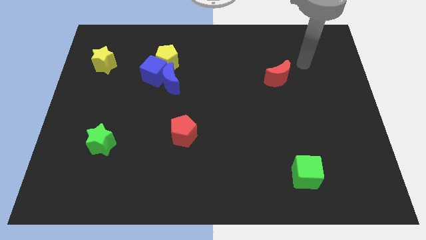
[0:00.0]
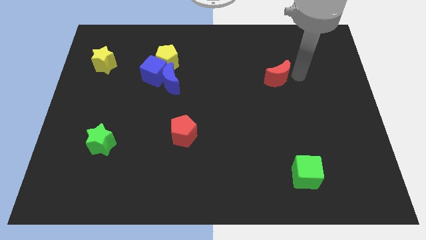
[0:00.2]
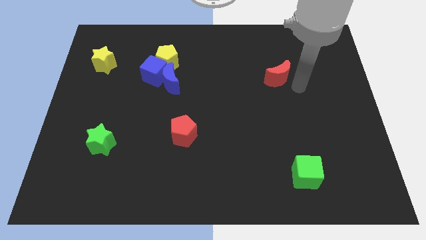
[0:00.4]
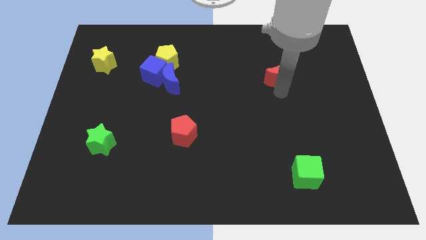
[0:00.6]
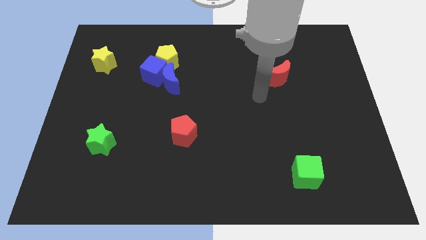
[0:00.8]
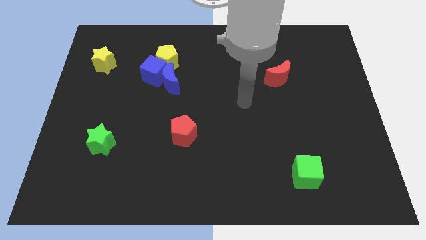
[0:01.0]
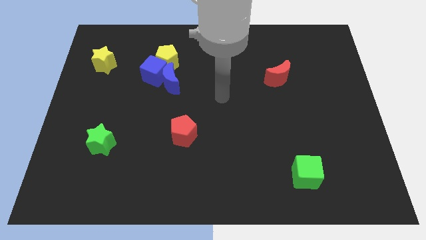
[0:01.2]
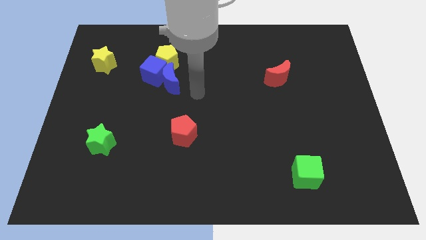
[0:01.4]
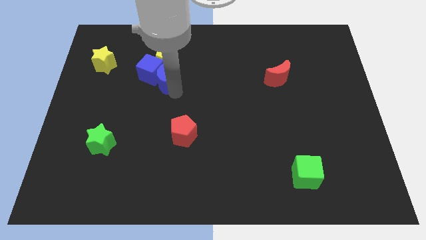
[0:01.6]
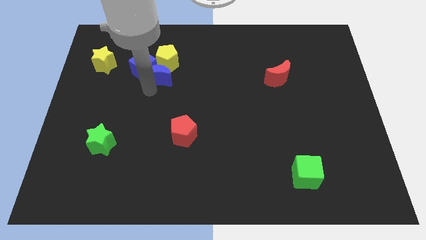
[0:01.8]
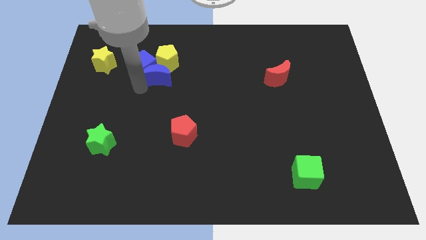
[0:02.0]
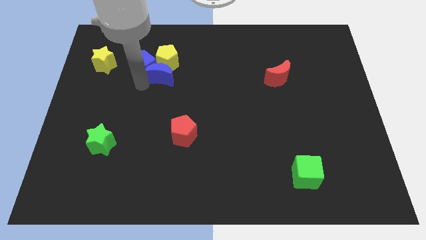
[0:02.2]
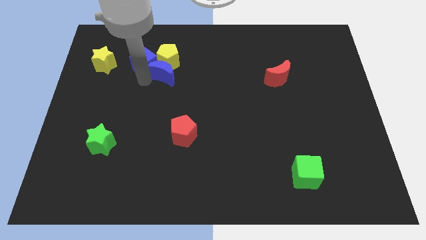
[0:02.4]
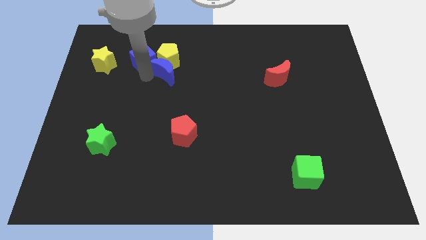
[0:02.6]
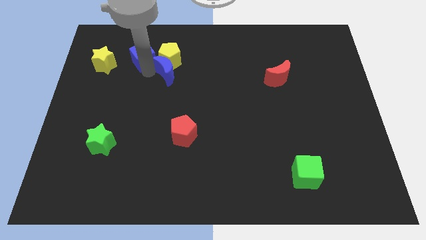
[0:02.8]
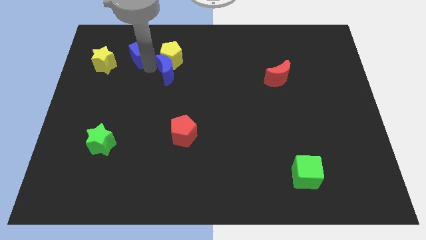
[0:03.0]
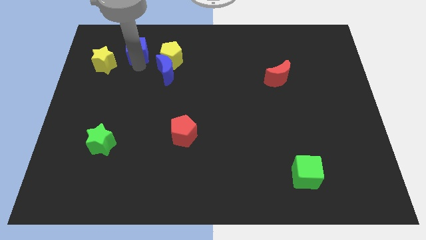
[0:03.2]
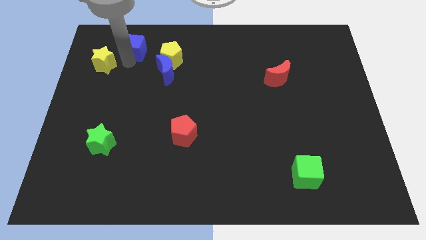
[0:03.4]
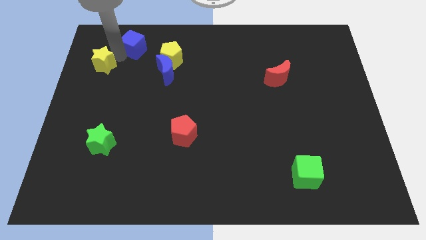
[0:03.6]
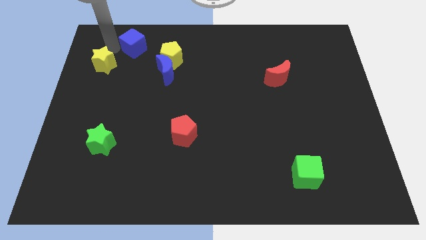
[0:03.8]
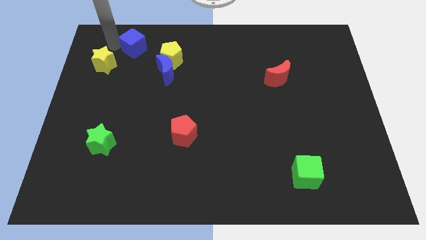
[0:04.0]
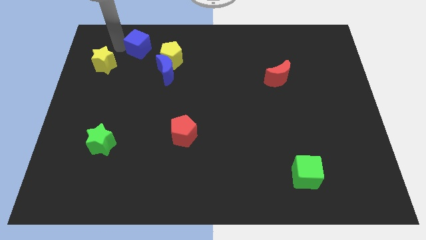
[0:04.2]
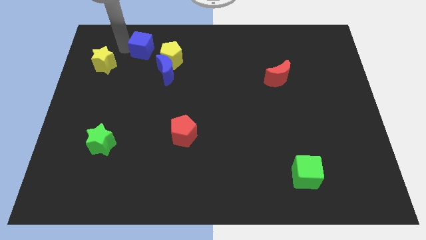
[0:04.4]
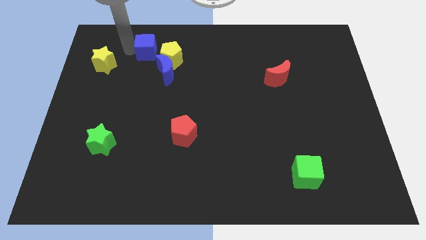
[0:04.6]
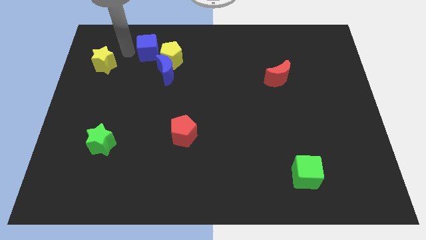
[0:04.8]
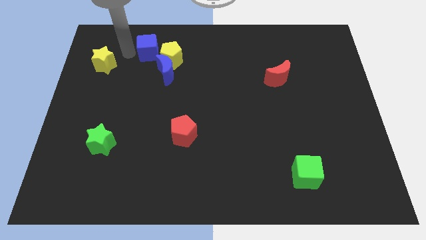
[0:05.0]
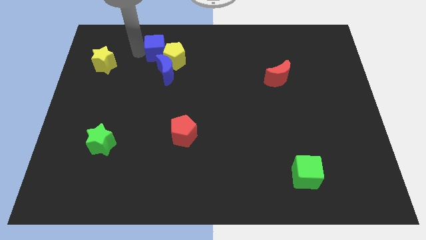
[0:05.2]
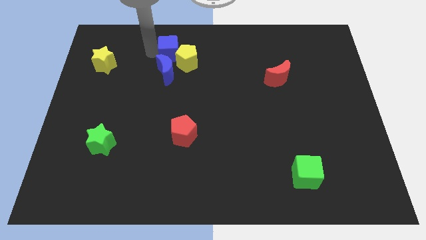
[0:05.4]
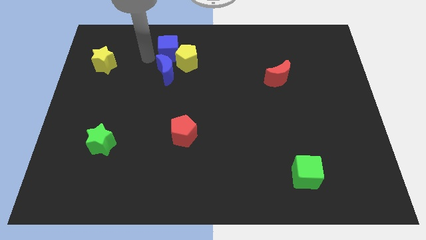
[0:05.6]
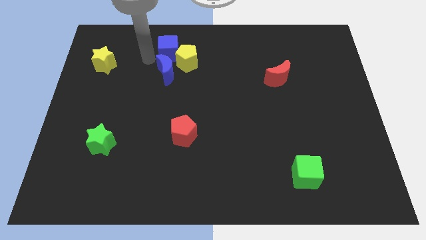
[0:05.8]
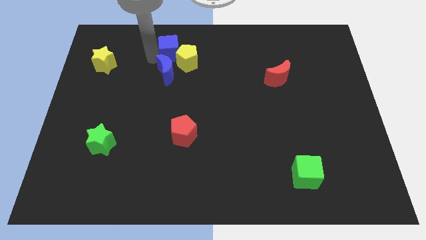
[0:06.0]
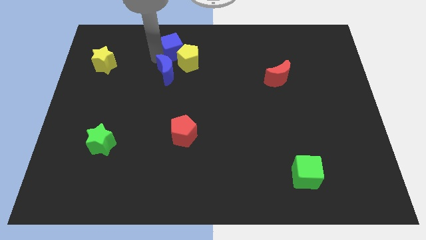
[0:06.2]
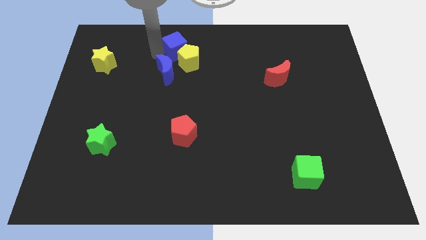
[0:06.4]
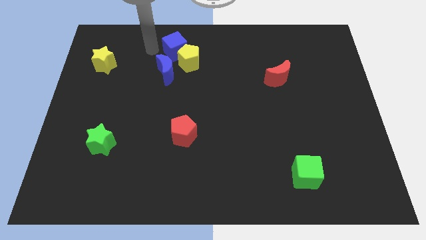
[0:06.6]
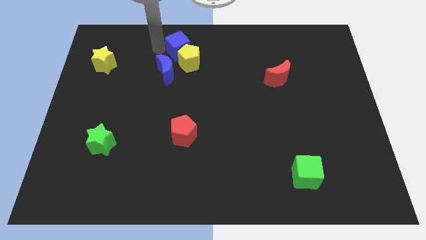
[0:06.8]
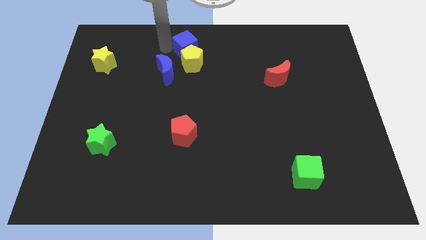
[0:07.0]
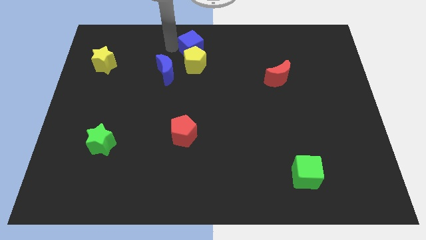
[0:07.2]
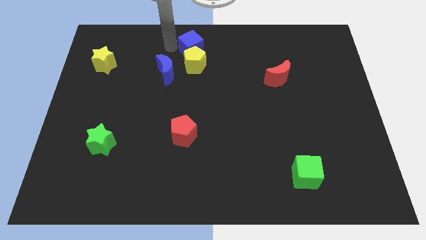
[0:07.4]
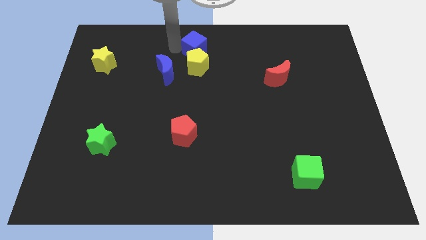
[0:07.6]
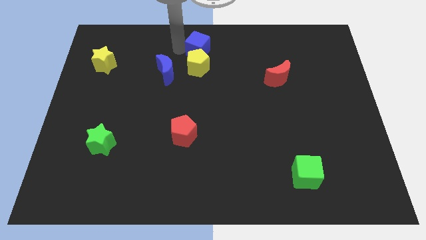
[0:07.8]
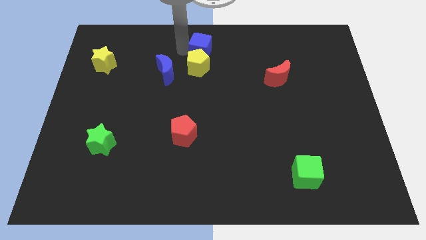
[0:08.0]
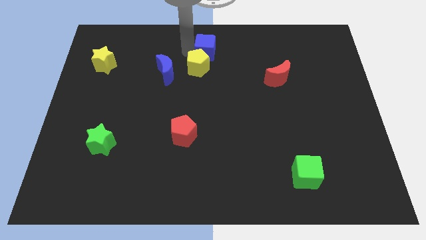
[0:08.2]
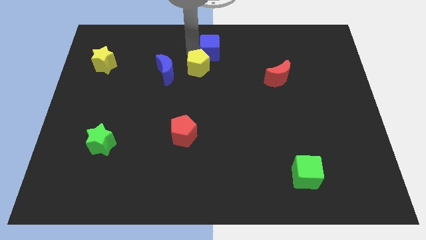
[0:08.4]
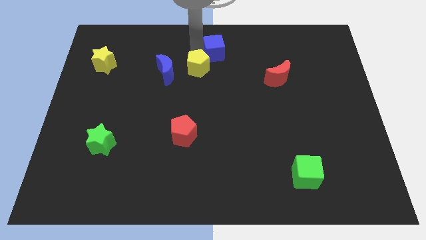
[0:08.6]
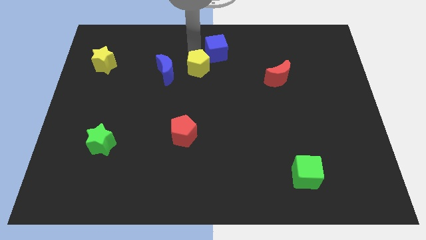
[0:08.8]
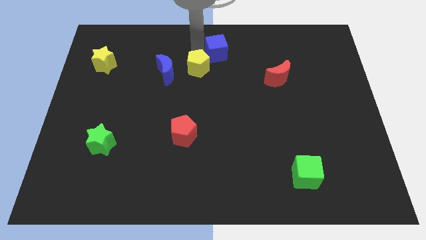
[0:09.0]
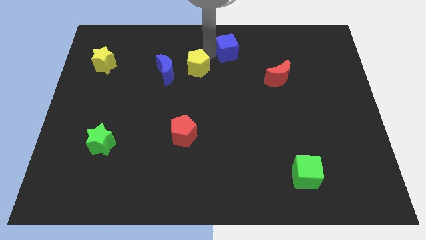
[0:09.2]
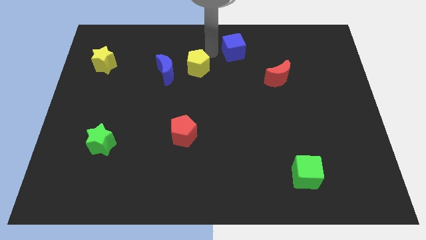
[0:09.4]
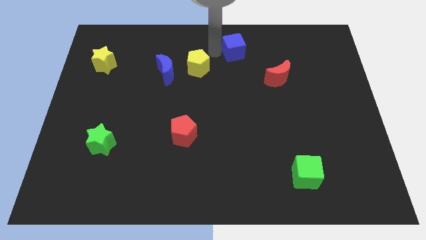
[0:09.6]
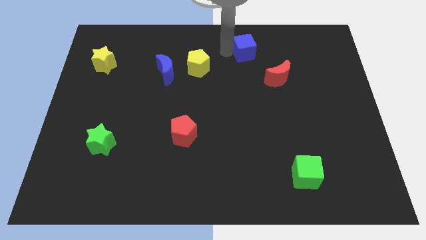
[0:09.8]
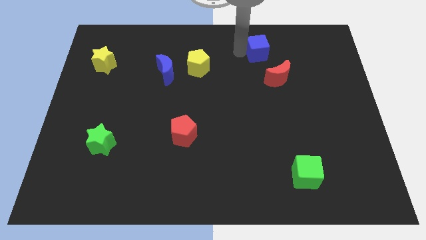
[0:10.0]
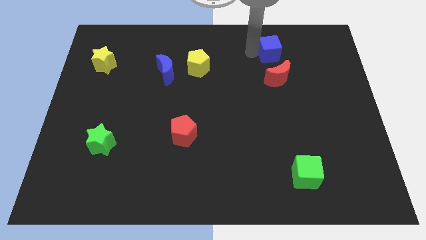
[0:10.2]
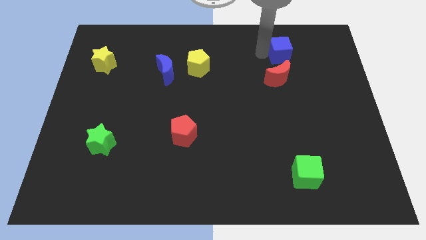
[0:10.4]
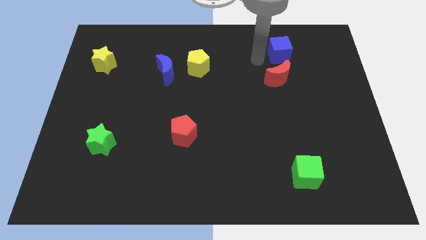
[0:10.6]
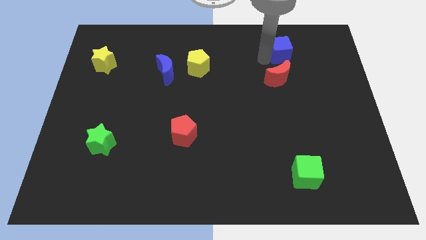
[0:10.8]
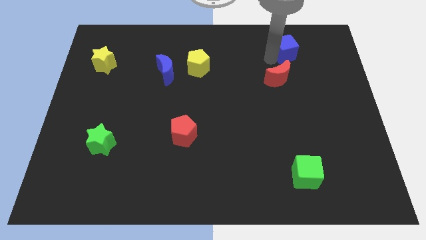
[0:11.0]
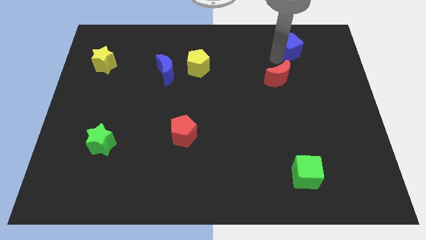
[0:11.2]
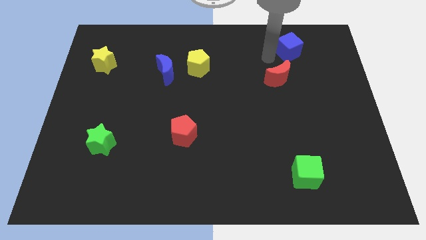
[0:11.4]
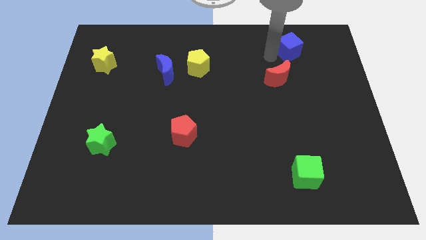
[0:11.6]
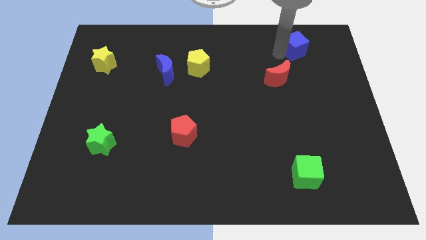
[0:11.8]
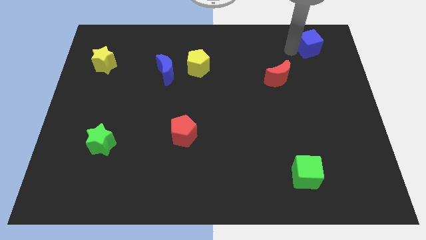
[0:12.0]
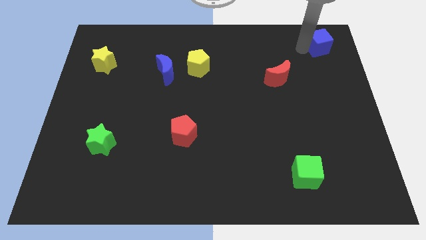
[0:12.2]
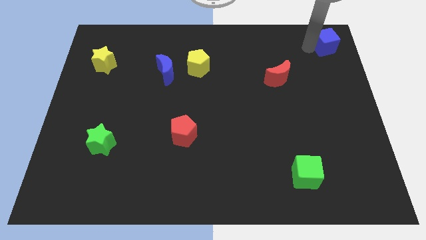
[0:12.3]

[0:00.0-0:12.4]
put the blue cube to the top right of the board

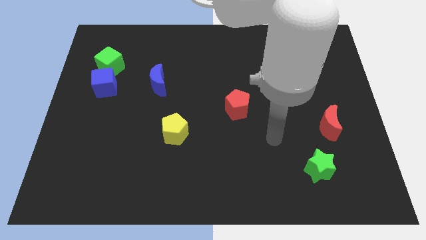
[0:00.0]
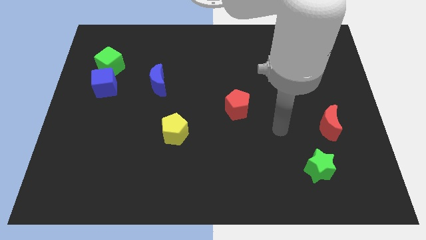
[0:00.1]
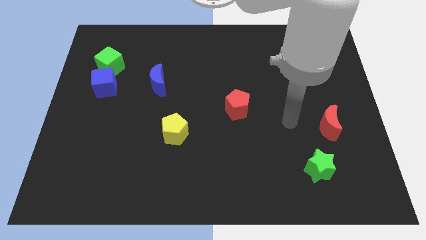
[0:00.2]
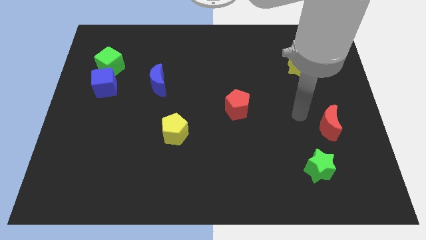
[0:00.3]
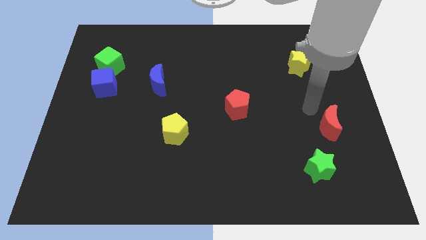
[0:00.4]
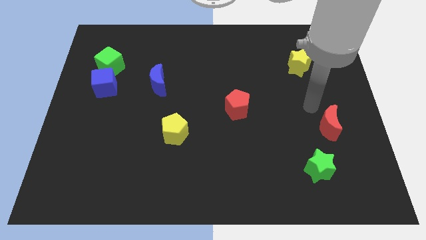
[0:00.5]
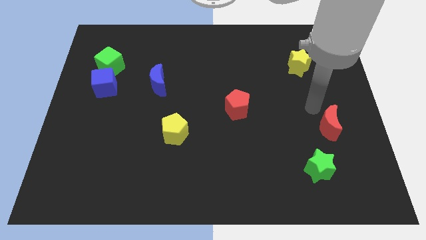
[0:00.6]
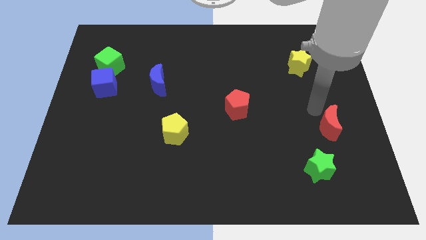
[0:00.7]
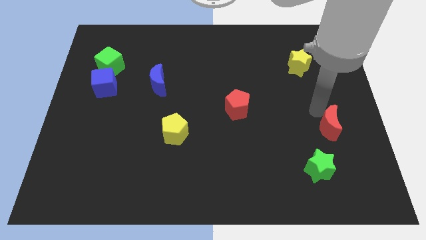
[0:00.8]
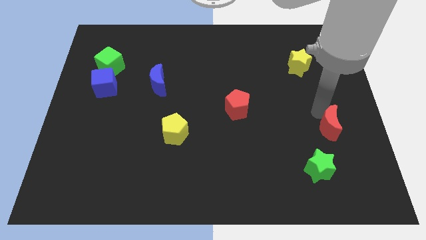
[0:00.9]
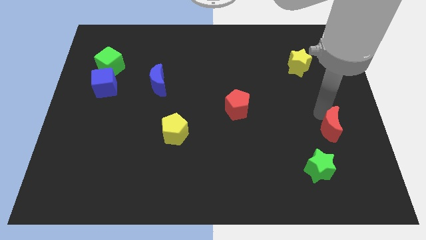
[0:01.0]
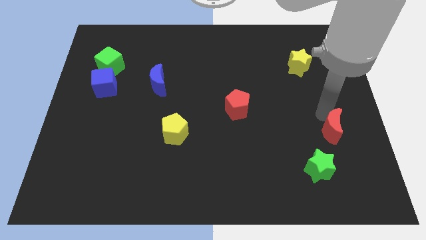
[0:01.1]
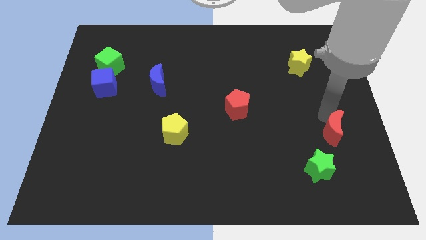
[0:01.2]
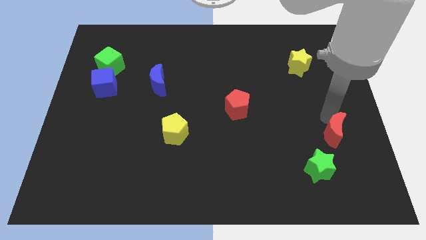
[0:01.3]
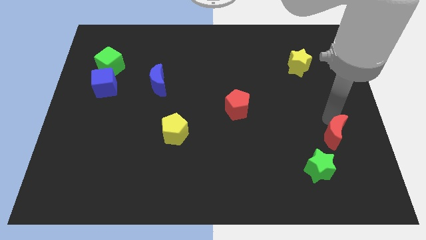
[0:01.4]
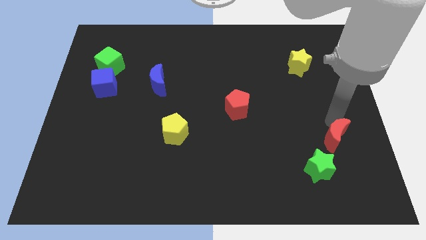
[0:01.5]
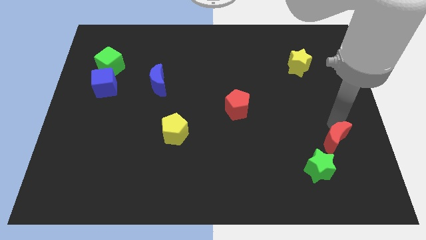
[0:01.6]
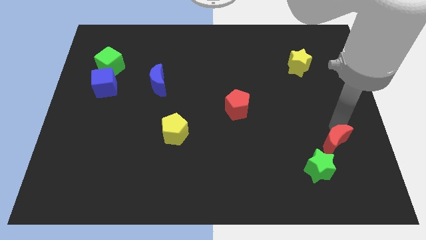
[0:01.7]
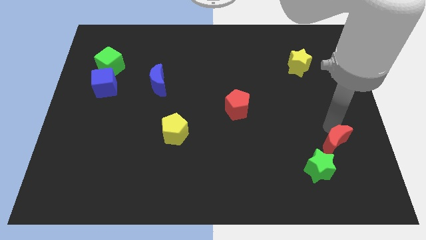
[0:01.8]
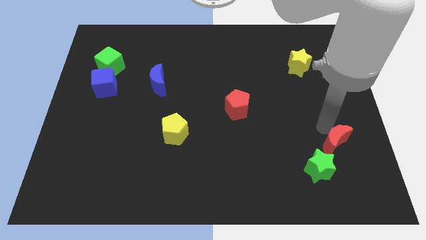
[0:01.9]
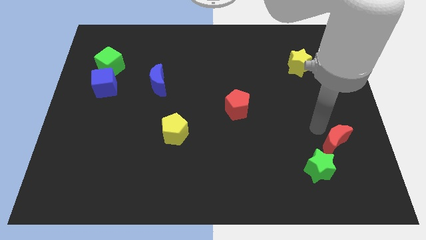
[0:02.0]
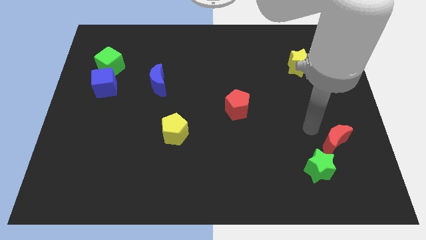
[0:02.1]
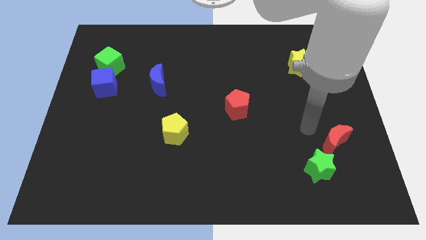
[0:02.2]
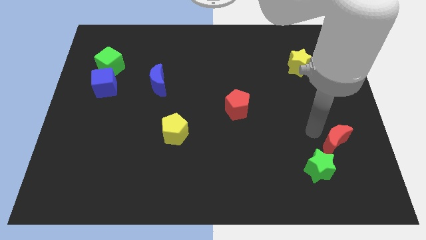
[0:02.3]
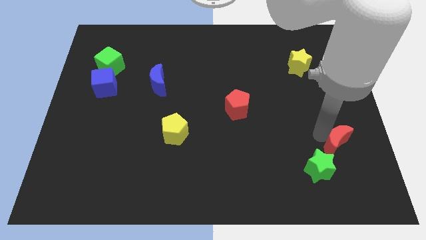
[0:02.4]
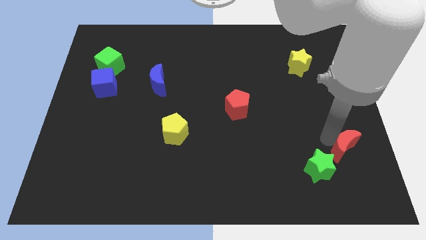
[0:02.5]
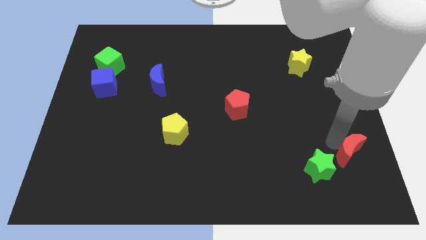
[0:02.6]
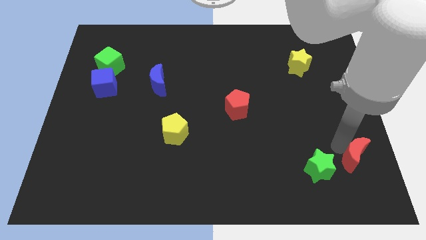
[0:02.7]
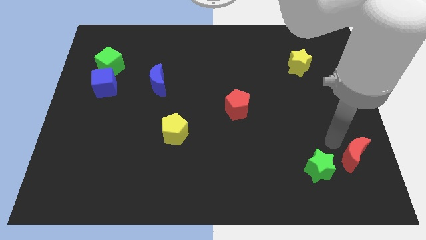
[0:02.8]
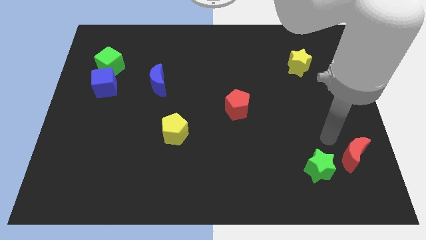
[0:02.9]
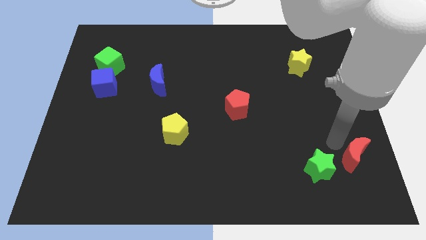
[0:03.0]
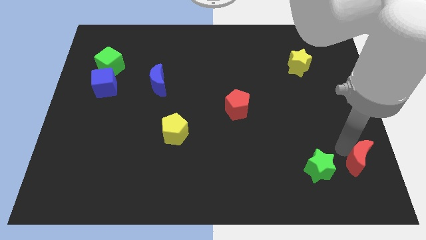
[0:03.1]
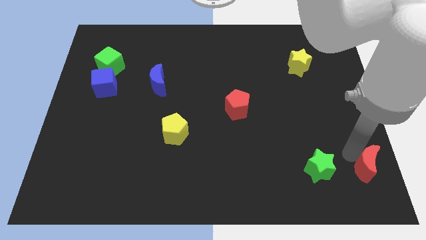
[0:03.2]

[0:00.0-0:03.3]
slide the red moon to the lower right corner
